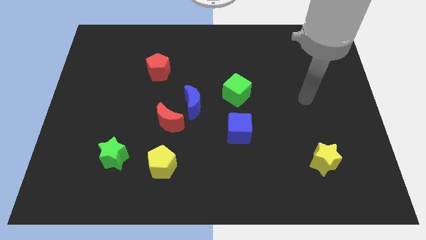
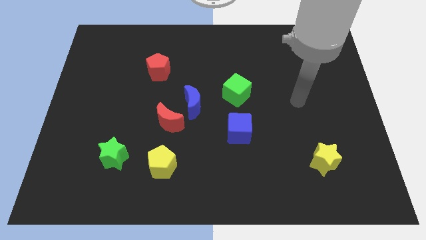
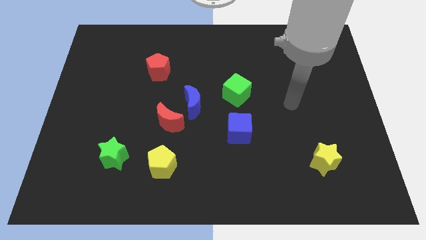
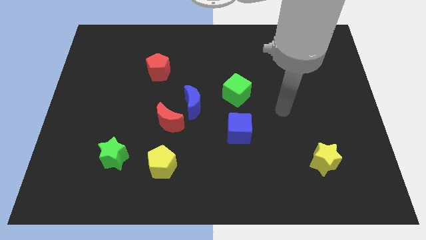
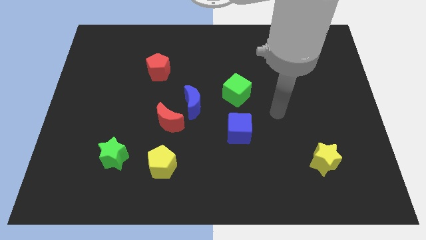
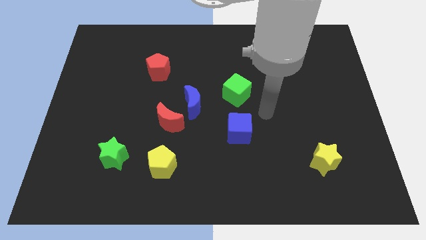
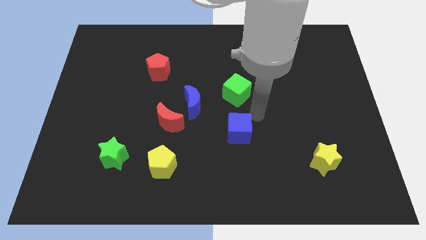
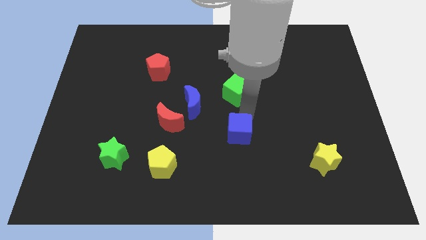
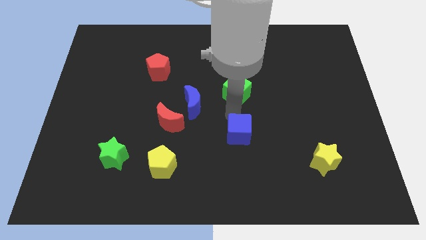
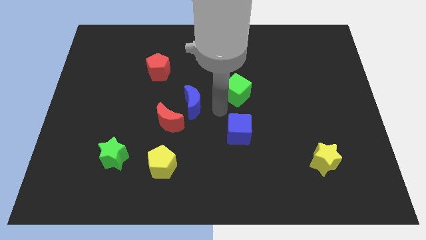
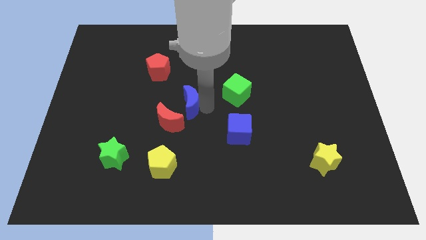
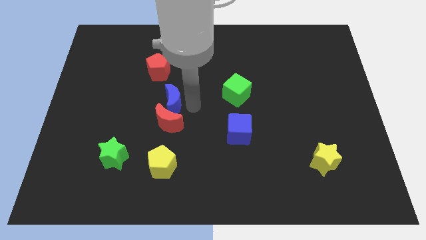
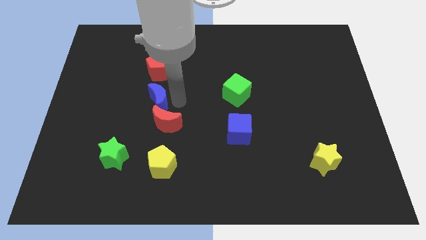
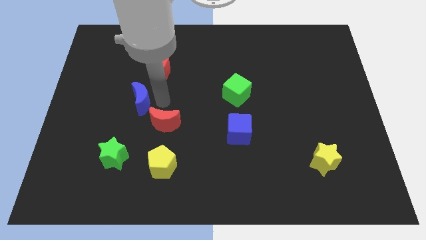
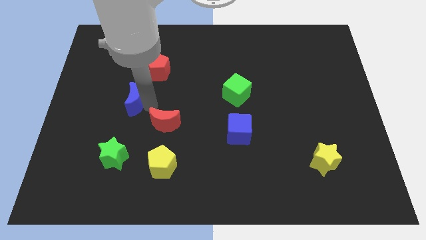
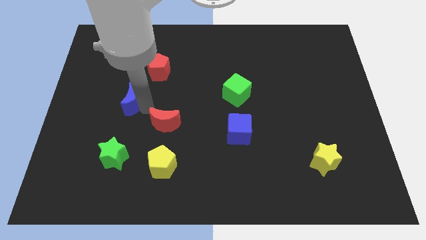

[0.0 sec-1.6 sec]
separate the red moon from the blue moon

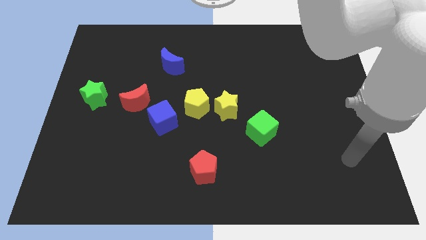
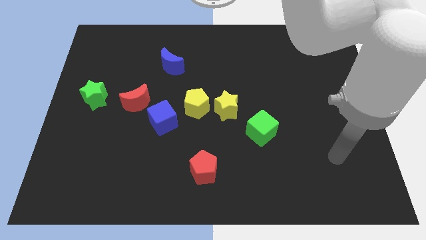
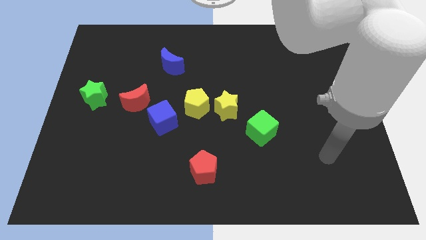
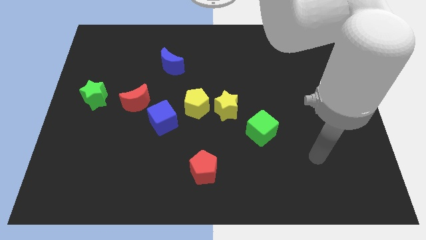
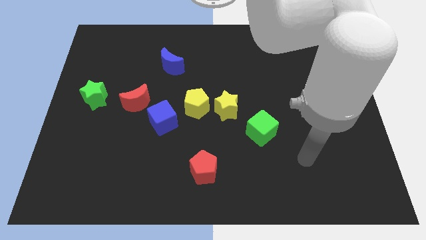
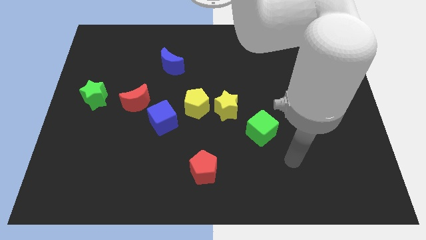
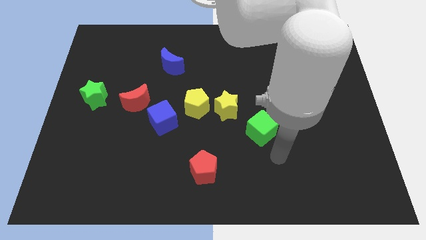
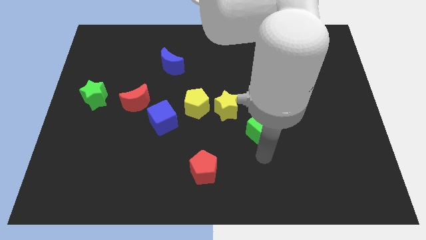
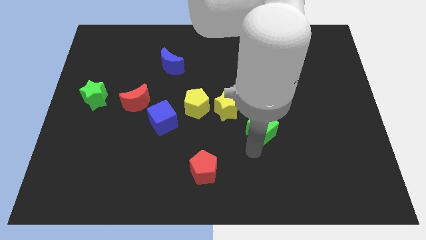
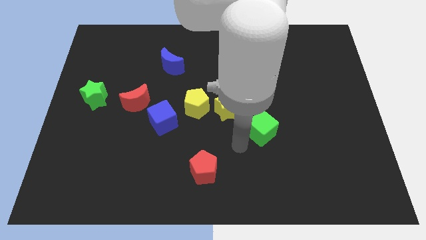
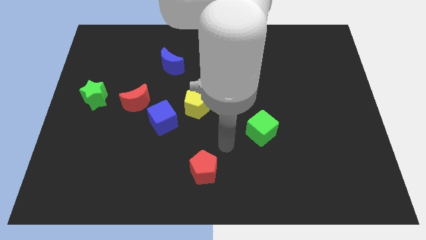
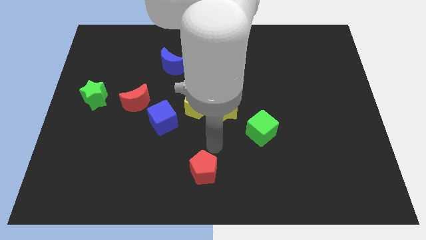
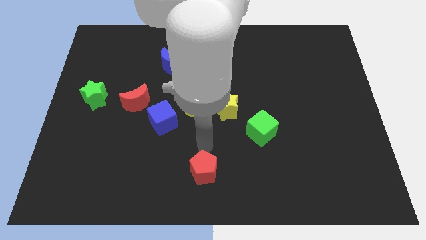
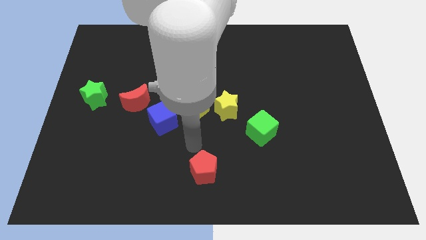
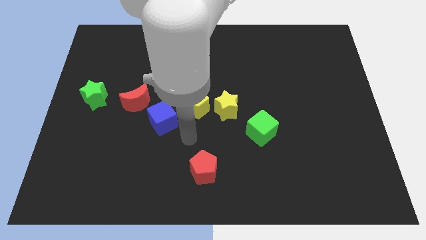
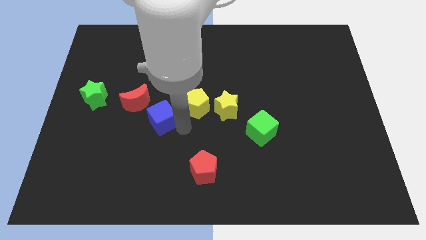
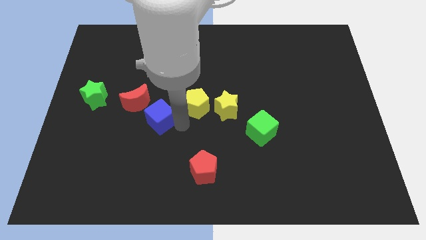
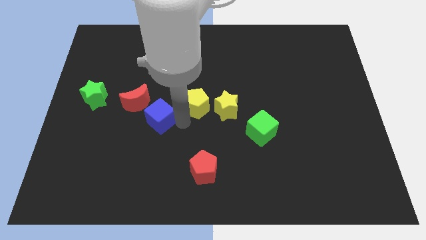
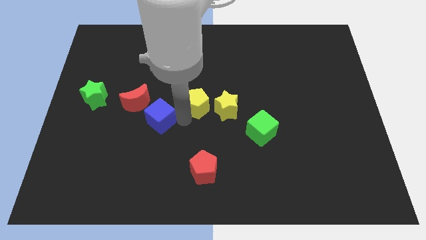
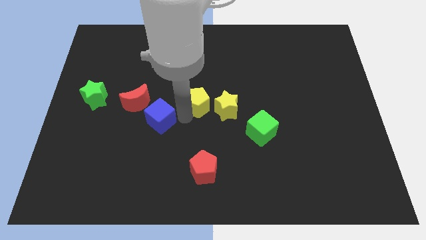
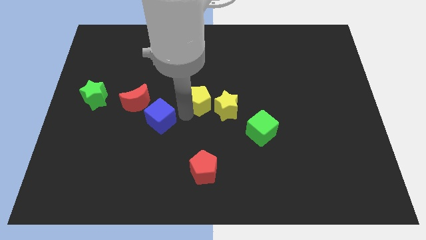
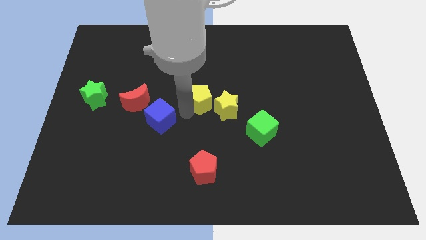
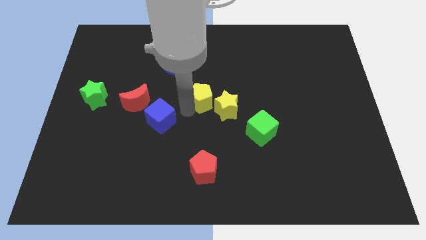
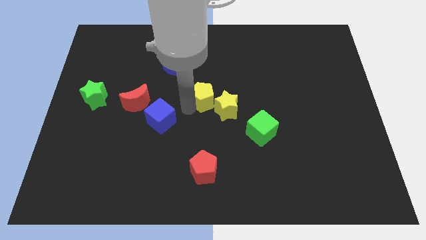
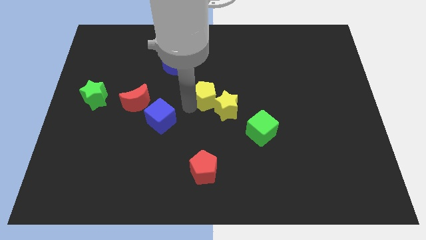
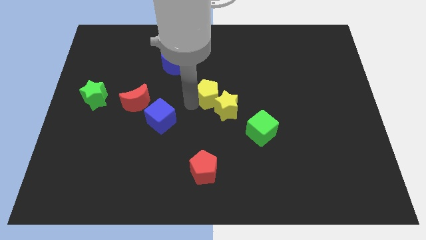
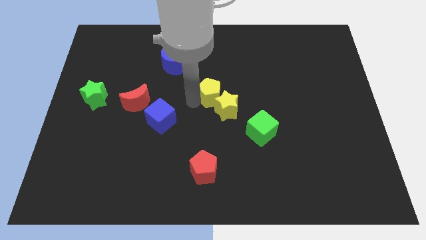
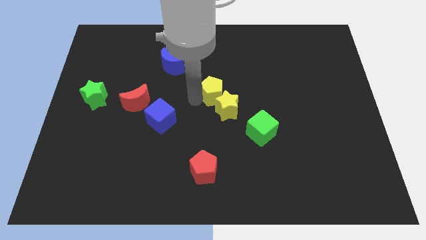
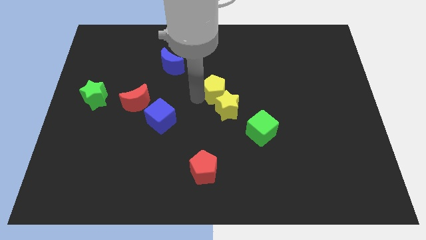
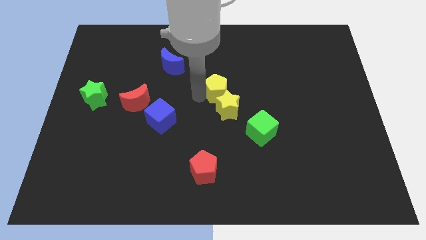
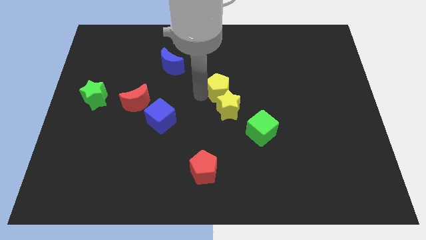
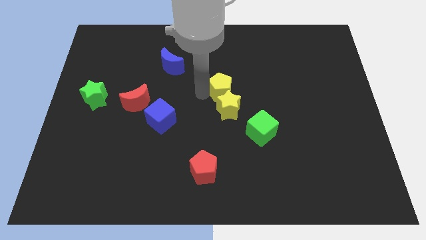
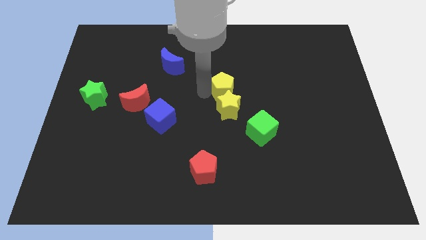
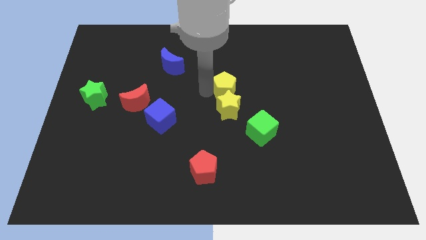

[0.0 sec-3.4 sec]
pull the yellow pentagon apart from the yellow star and blue cube

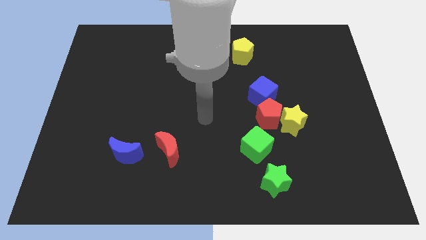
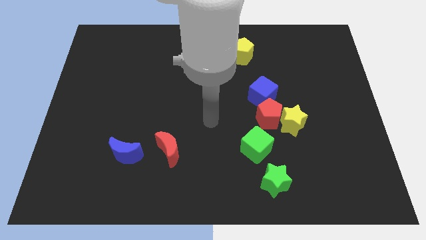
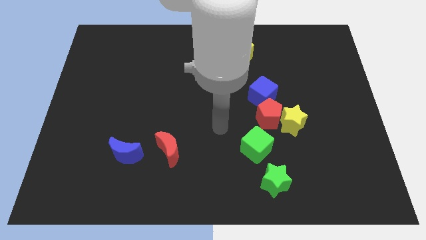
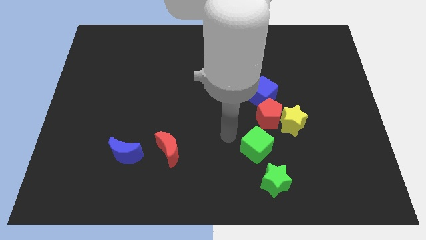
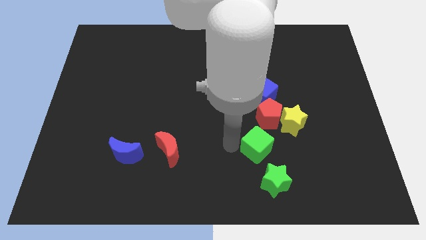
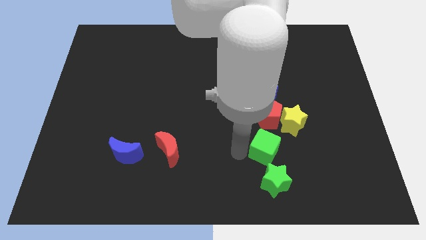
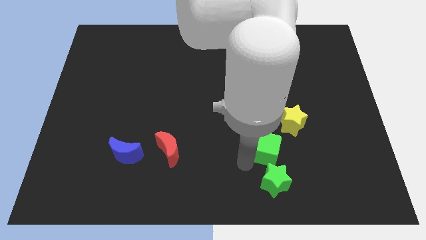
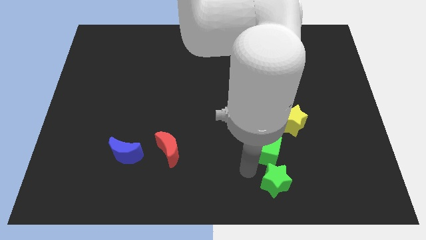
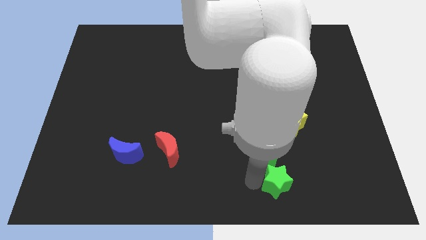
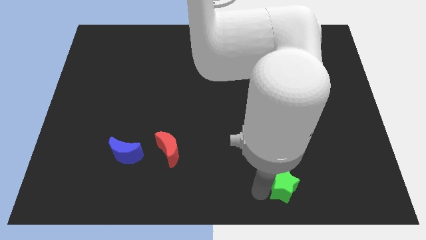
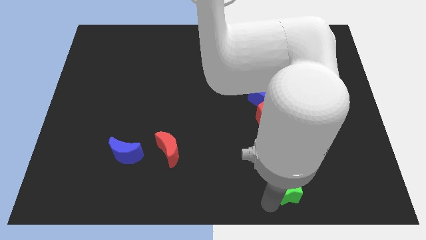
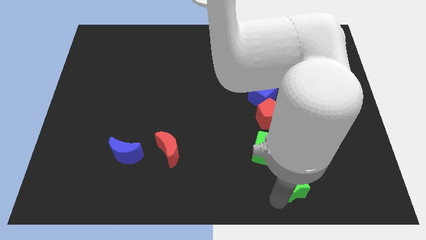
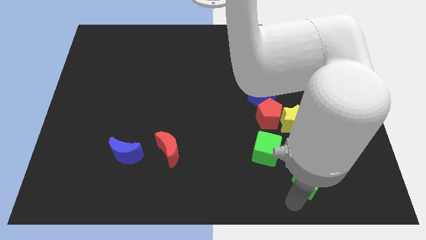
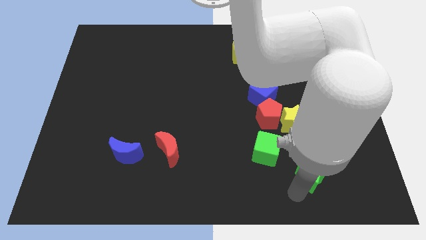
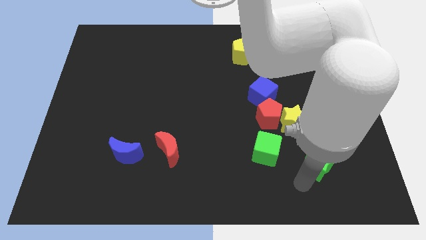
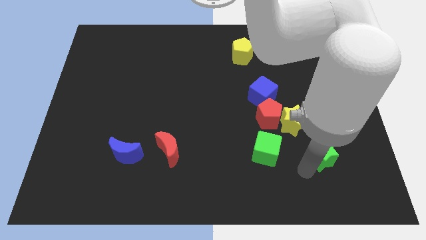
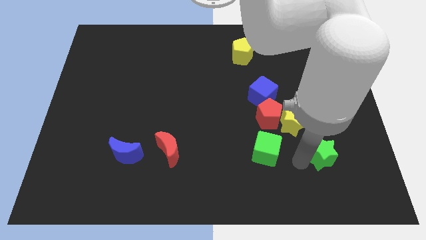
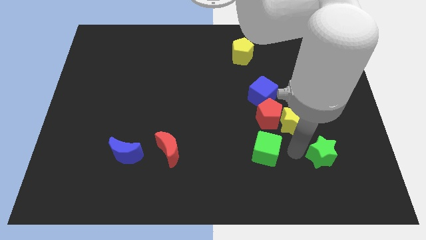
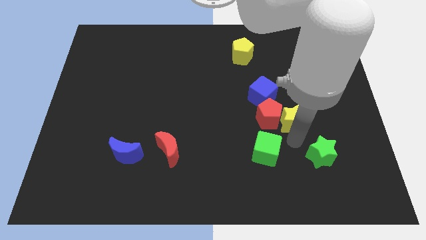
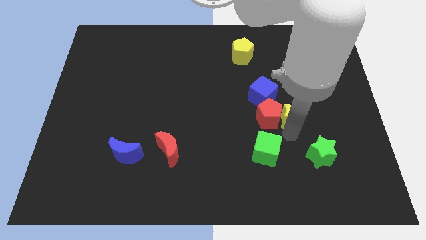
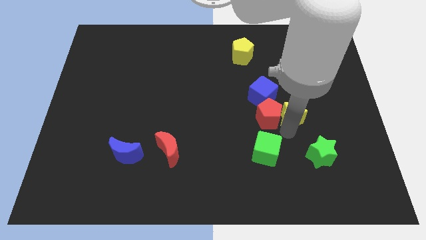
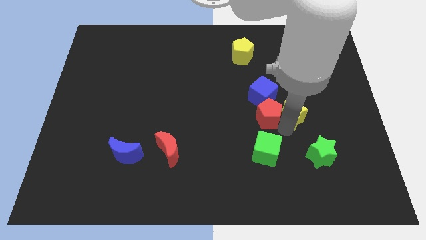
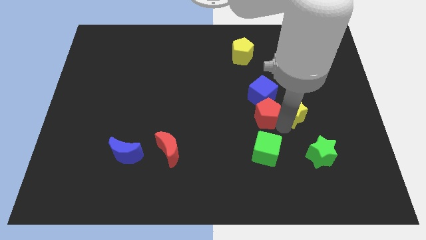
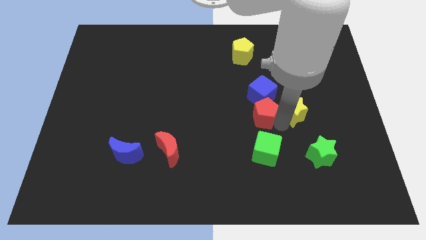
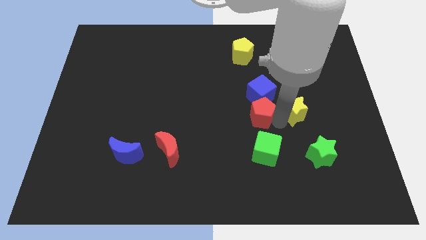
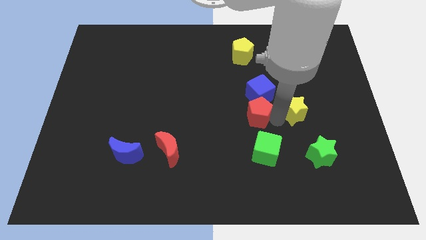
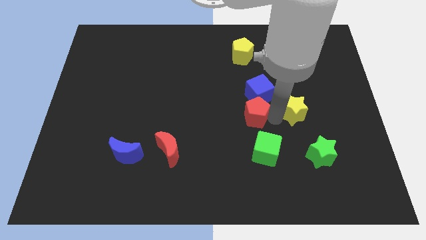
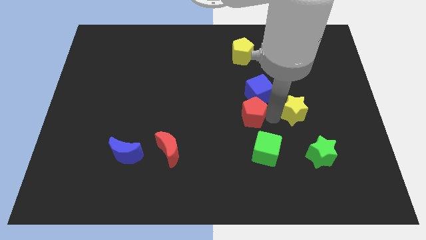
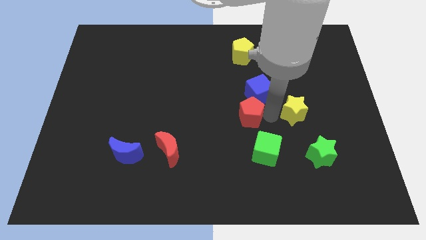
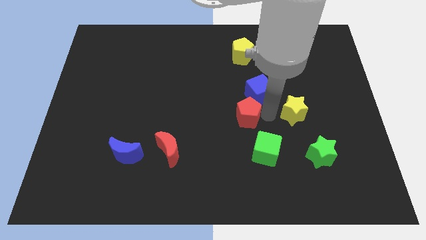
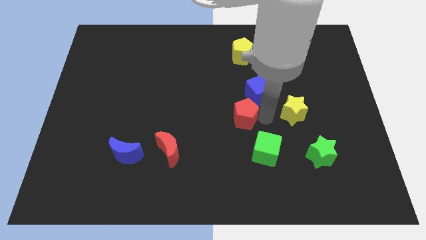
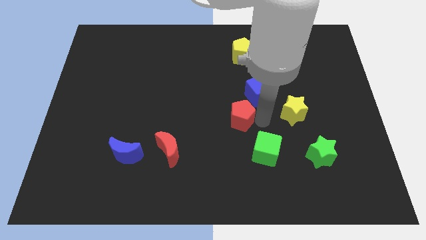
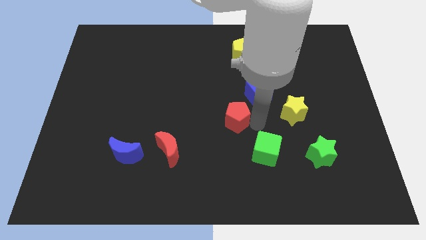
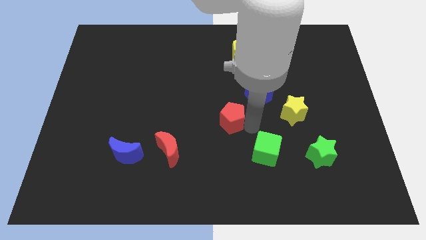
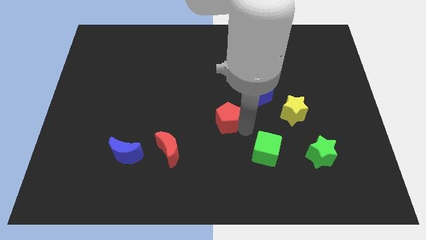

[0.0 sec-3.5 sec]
separate the red pentagon from the clump

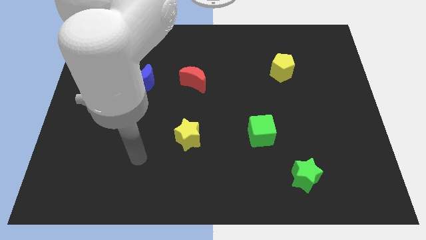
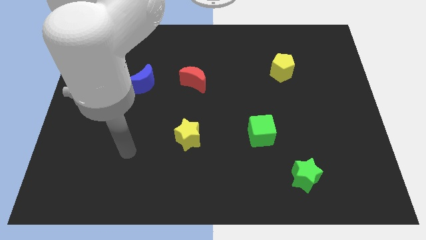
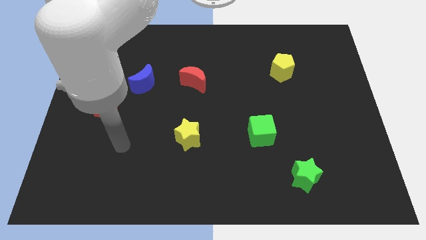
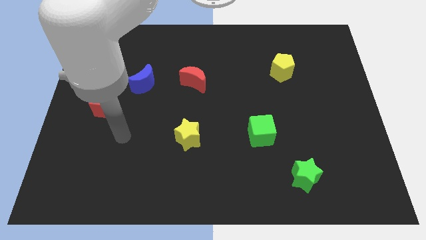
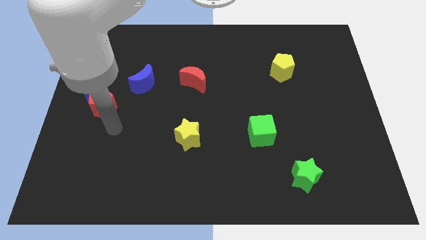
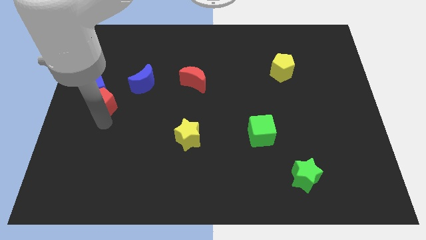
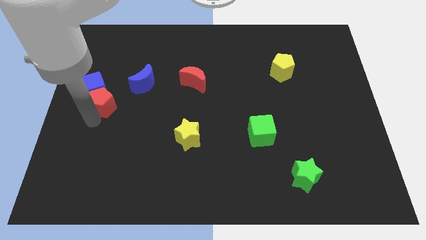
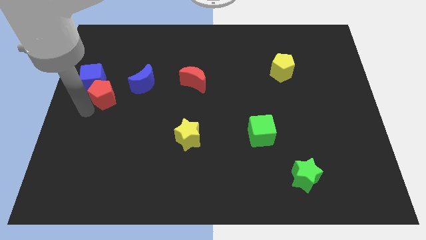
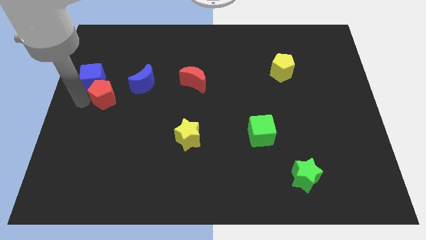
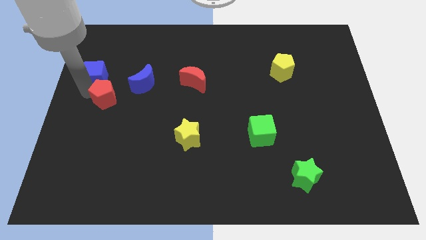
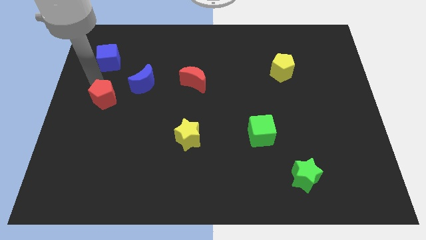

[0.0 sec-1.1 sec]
move the red pentagon away from the blue cube
